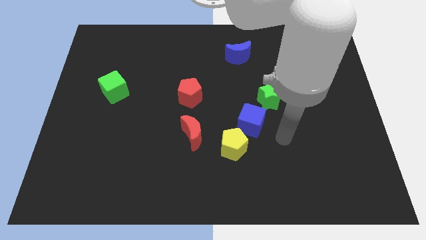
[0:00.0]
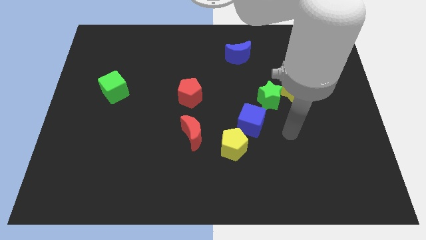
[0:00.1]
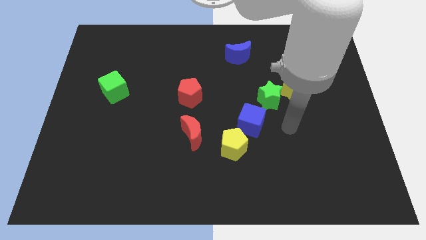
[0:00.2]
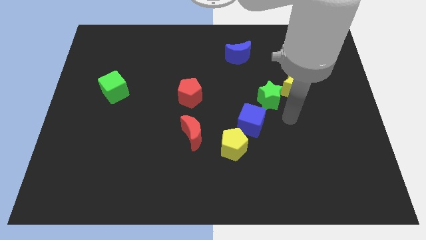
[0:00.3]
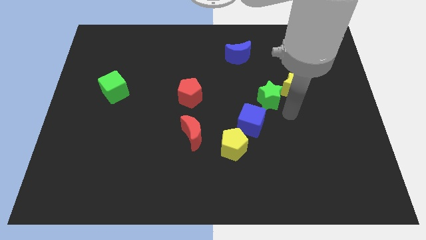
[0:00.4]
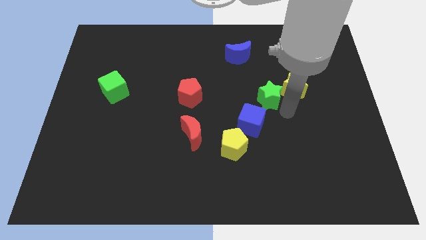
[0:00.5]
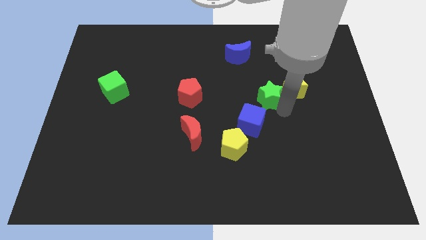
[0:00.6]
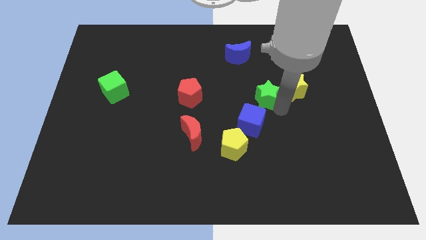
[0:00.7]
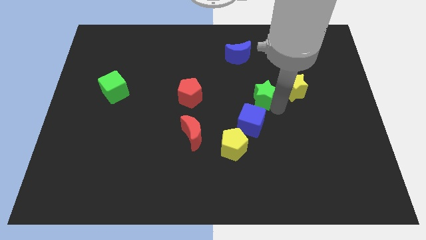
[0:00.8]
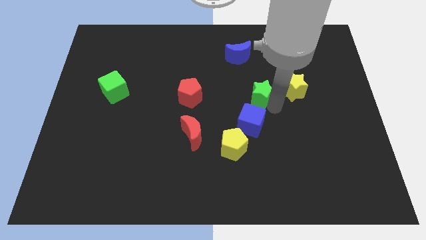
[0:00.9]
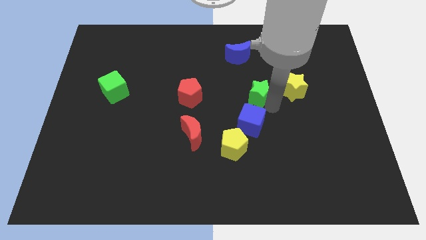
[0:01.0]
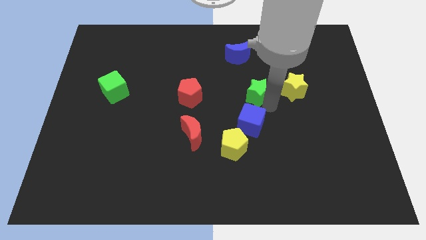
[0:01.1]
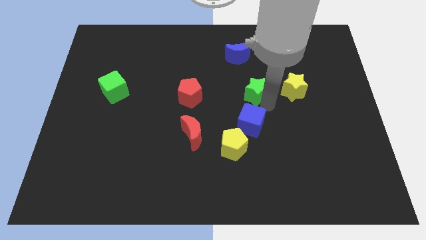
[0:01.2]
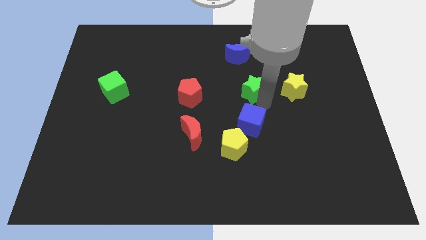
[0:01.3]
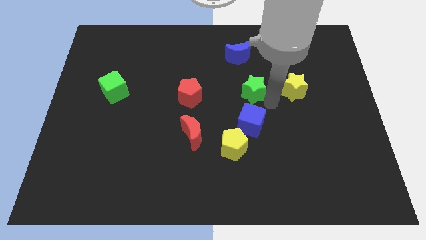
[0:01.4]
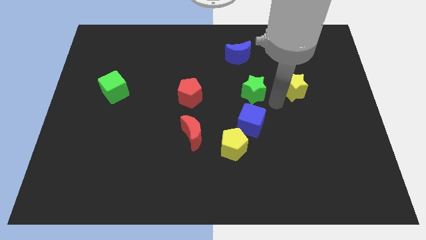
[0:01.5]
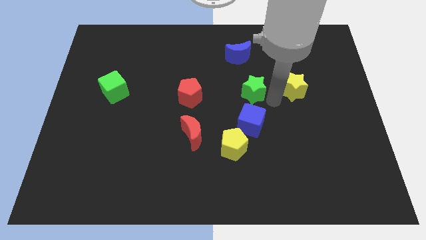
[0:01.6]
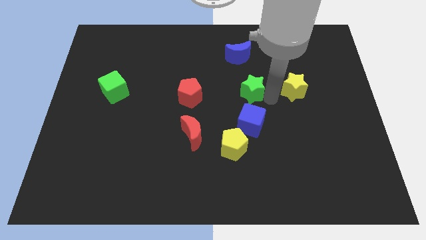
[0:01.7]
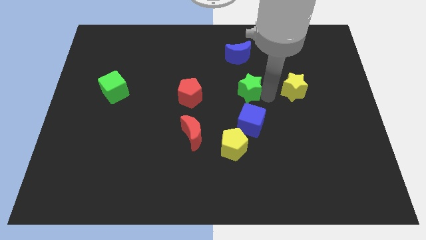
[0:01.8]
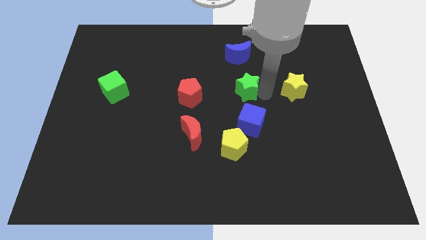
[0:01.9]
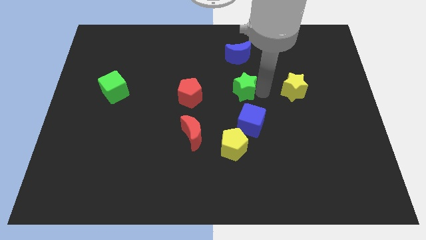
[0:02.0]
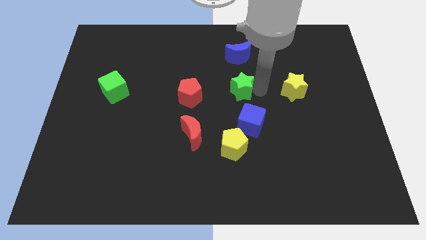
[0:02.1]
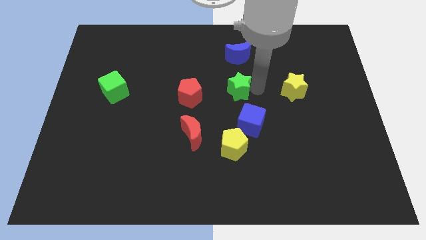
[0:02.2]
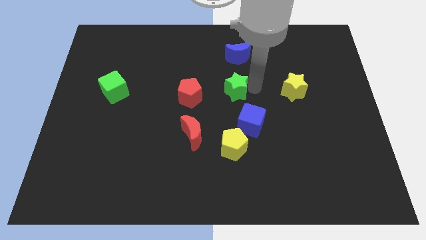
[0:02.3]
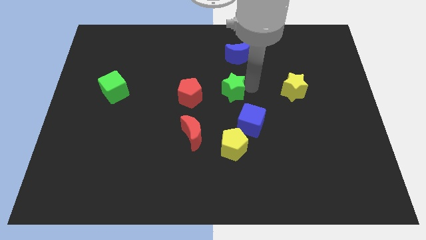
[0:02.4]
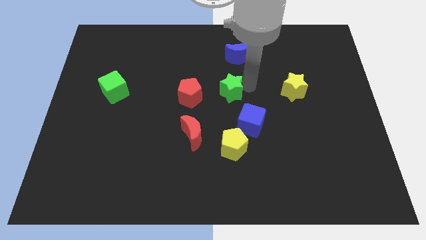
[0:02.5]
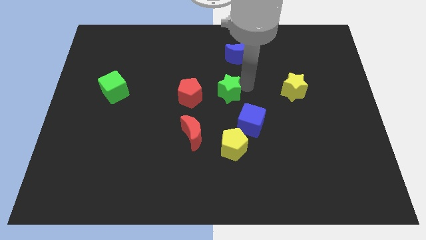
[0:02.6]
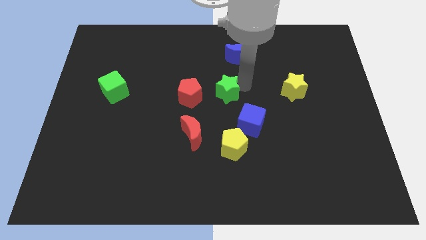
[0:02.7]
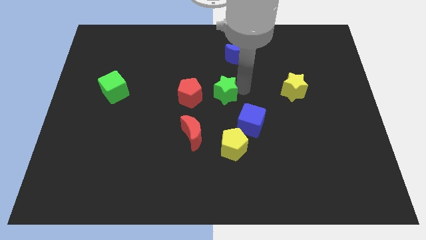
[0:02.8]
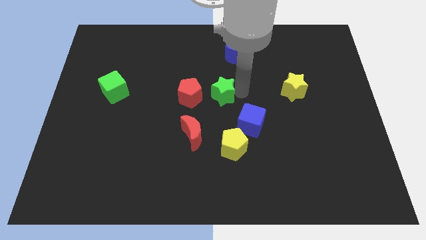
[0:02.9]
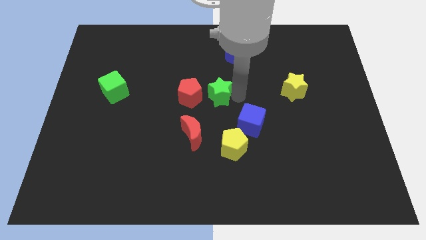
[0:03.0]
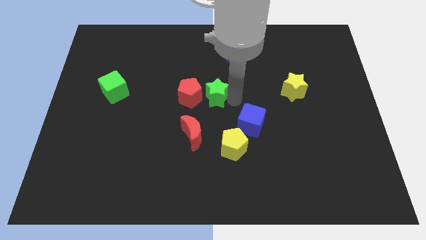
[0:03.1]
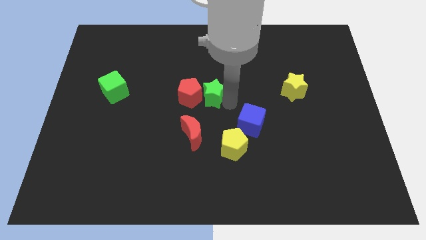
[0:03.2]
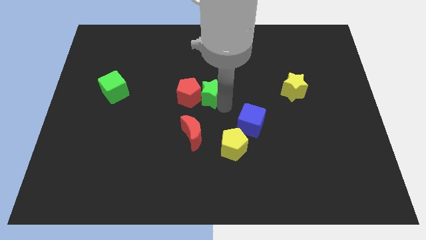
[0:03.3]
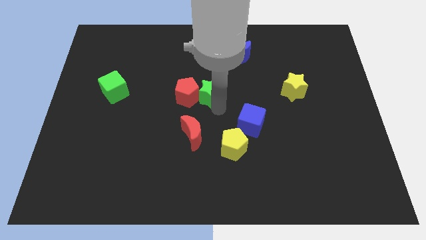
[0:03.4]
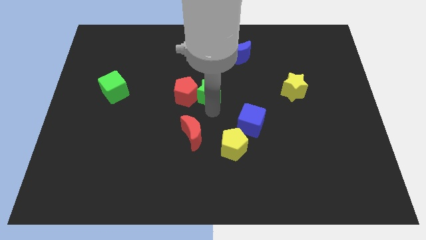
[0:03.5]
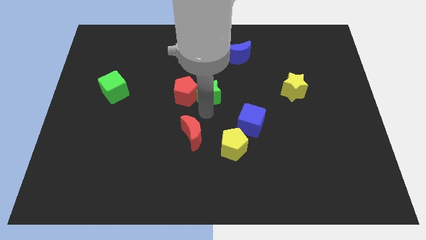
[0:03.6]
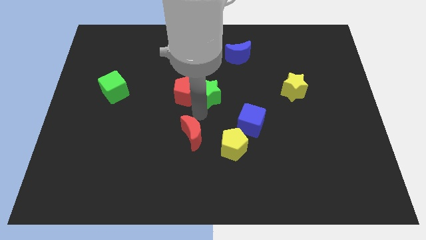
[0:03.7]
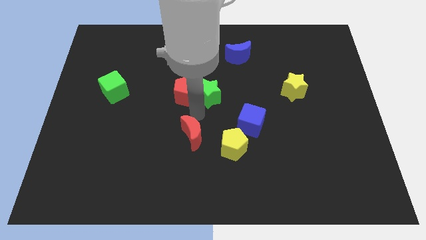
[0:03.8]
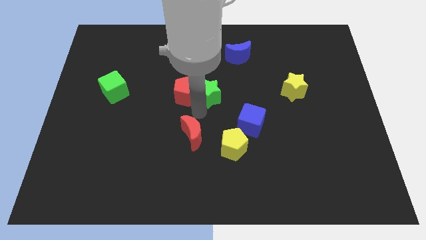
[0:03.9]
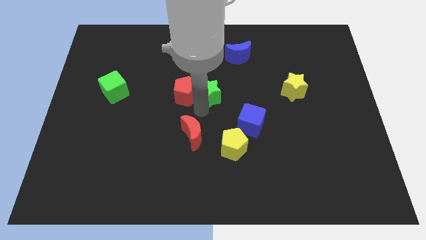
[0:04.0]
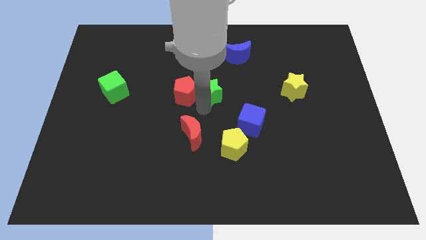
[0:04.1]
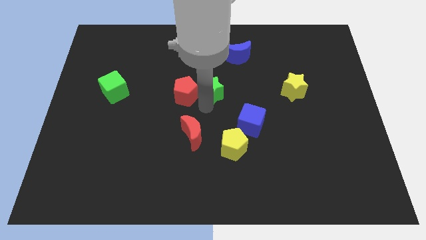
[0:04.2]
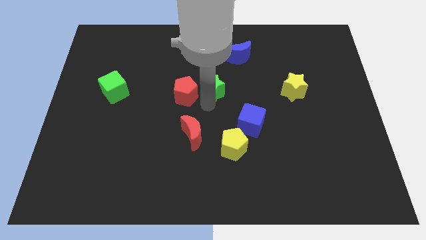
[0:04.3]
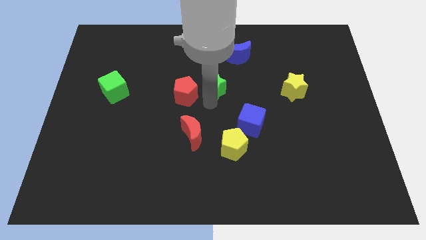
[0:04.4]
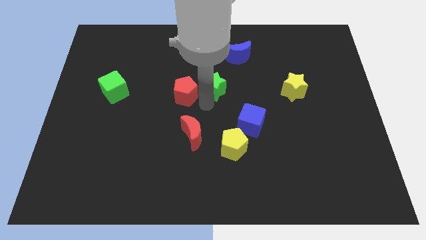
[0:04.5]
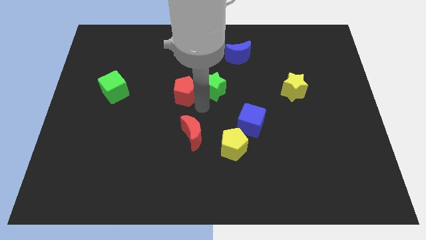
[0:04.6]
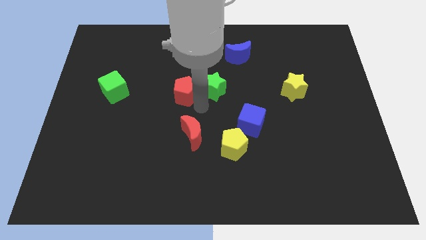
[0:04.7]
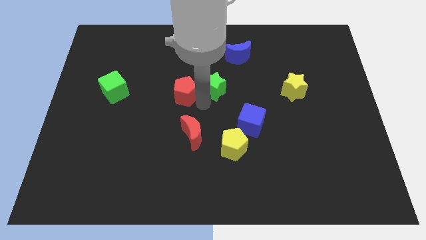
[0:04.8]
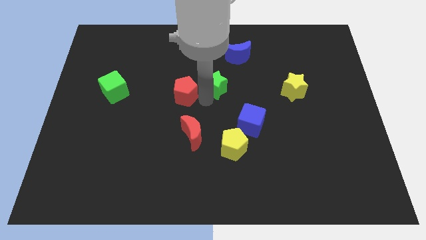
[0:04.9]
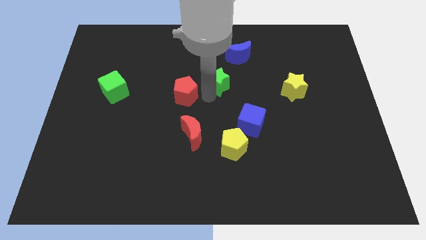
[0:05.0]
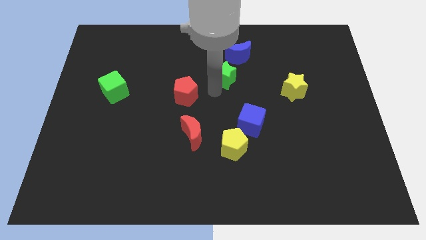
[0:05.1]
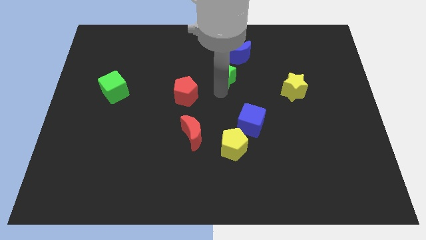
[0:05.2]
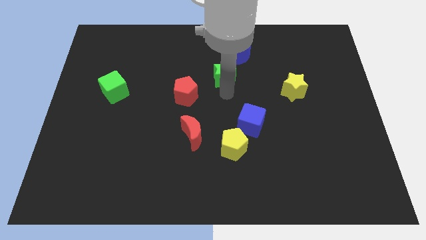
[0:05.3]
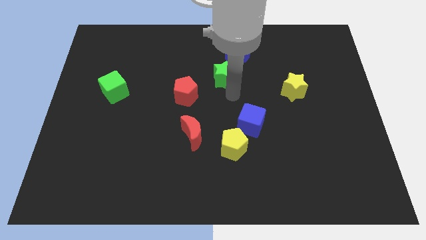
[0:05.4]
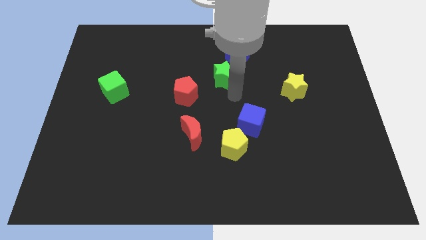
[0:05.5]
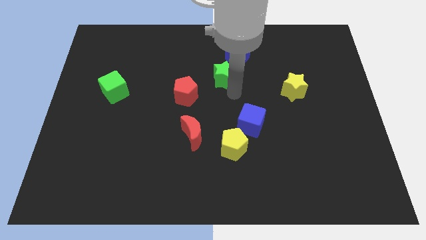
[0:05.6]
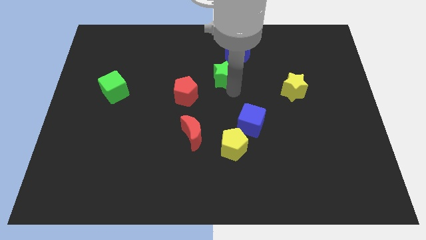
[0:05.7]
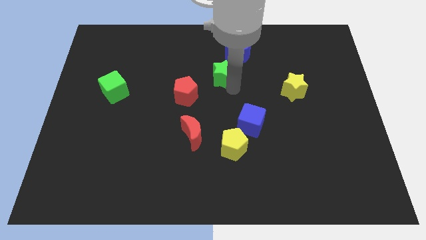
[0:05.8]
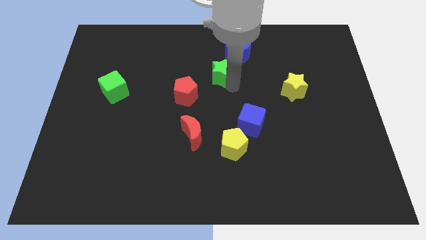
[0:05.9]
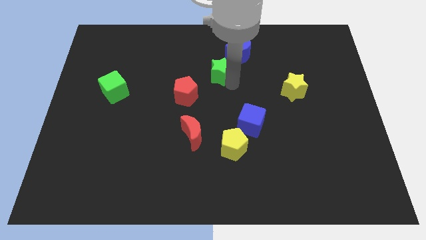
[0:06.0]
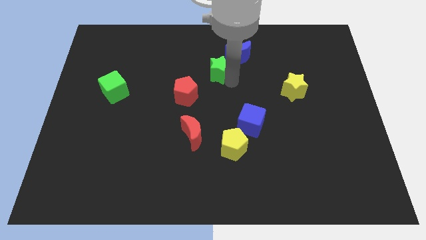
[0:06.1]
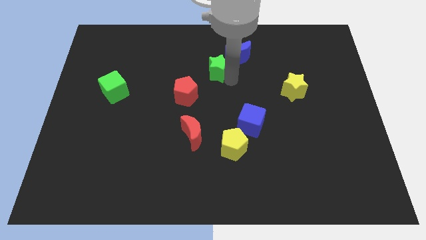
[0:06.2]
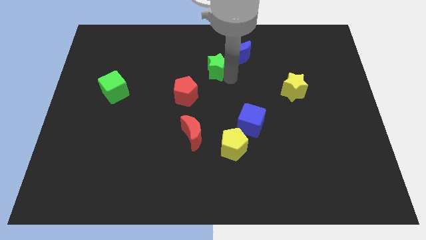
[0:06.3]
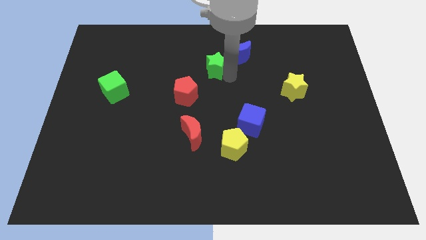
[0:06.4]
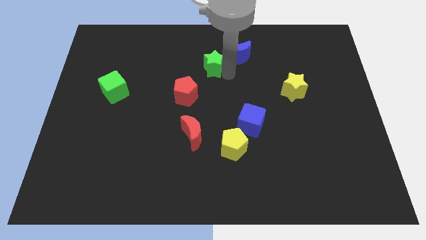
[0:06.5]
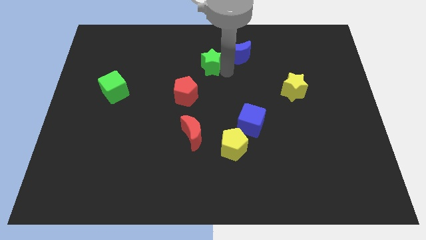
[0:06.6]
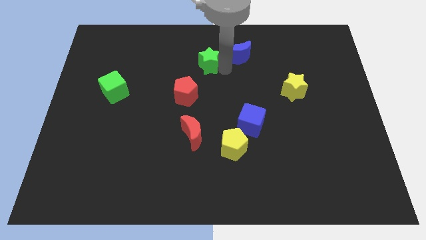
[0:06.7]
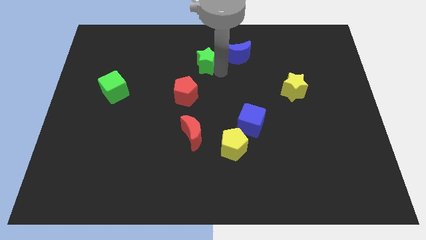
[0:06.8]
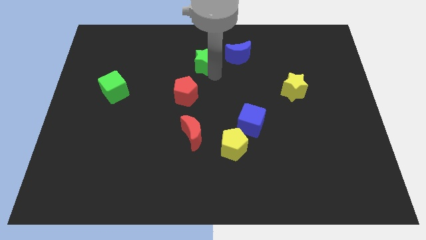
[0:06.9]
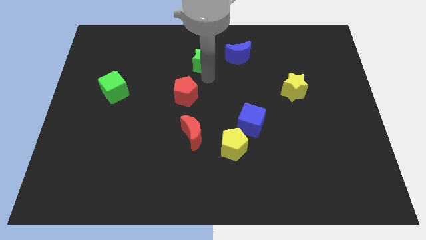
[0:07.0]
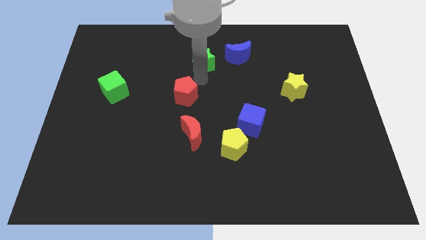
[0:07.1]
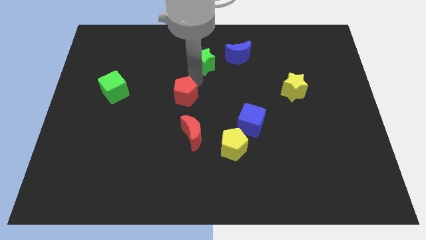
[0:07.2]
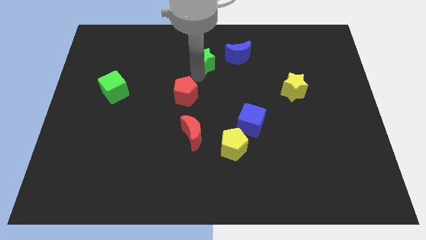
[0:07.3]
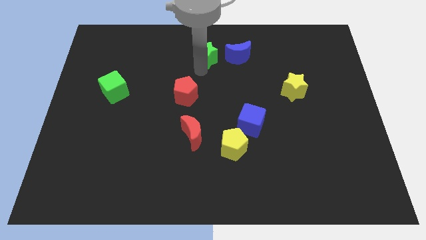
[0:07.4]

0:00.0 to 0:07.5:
move the green star to the top
